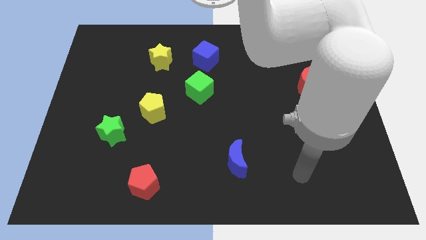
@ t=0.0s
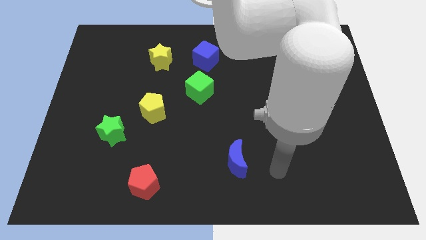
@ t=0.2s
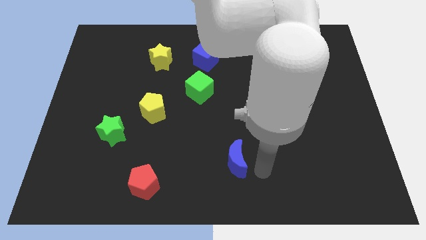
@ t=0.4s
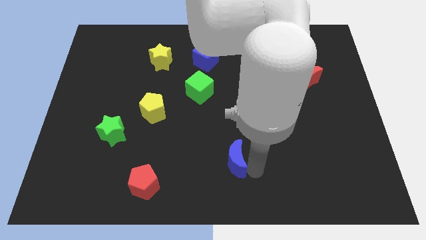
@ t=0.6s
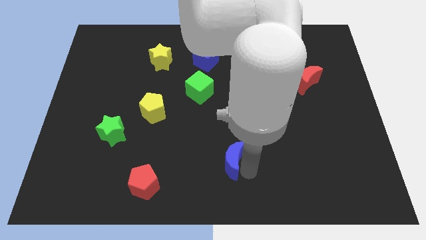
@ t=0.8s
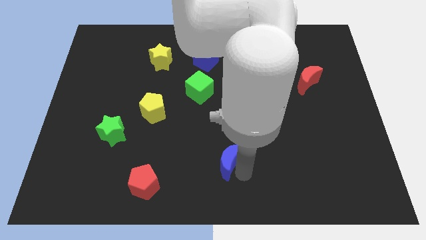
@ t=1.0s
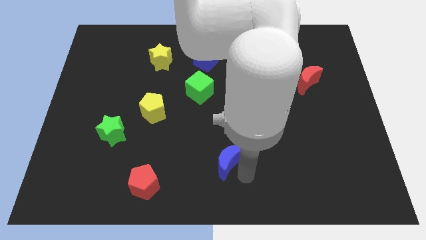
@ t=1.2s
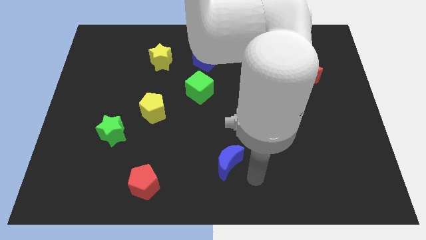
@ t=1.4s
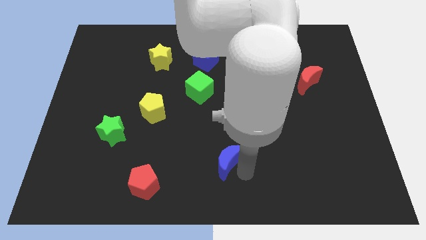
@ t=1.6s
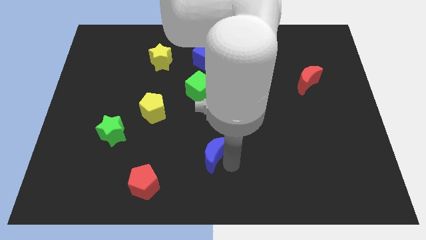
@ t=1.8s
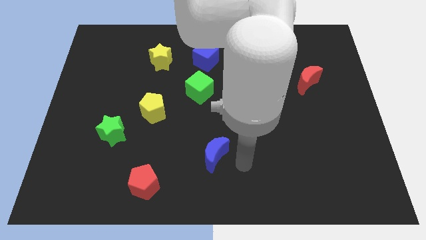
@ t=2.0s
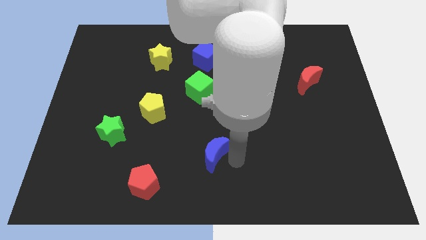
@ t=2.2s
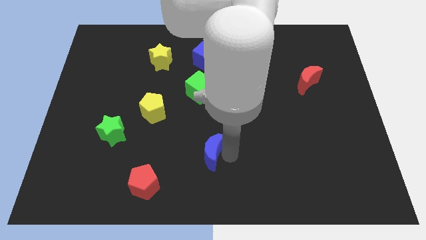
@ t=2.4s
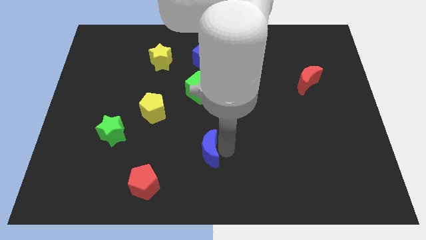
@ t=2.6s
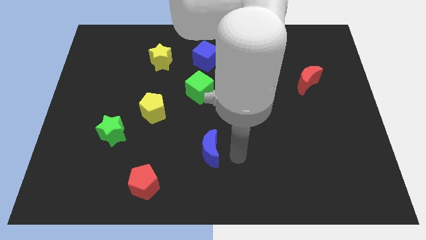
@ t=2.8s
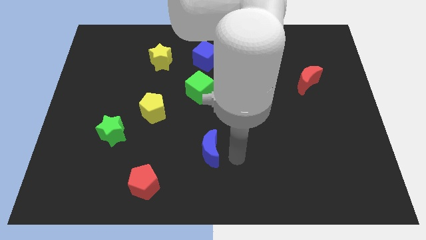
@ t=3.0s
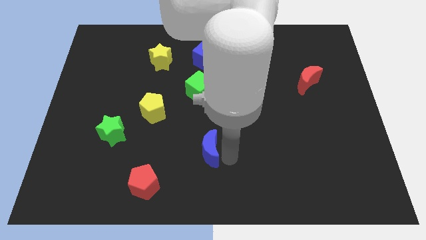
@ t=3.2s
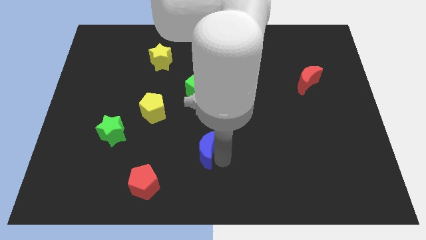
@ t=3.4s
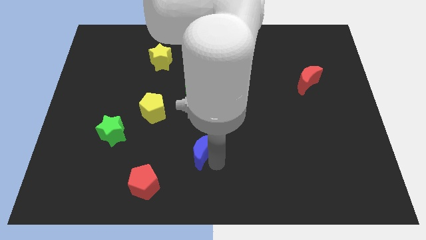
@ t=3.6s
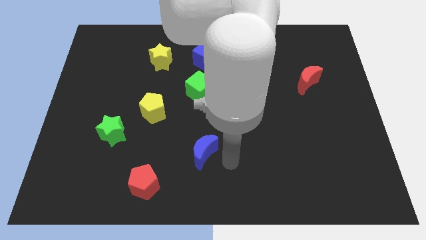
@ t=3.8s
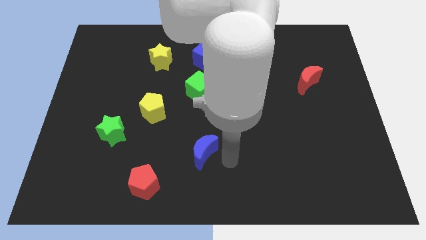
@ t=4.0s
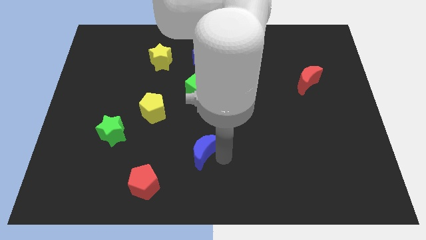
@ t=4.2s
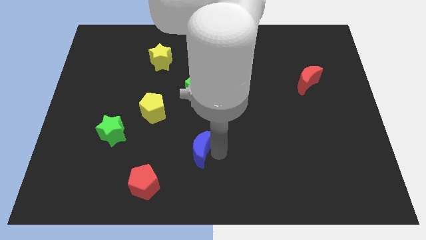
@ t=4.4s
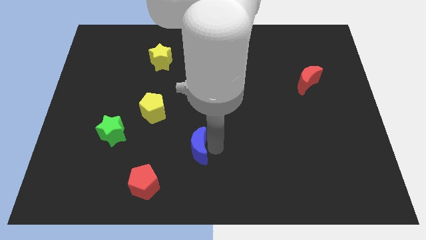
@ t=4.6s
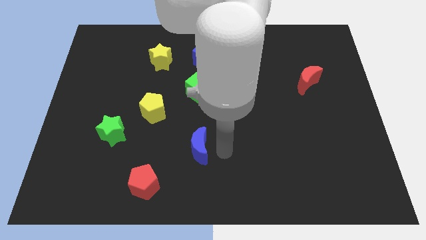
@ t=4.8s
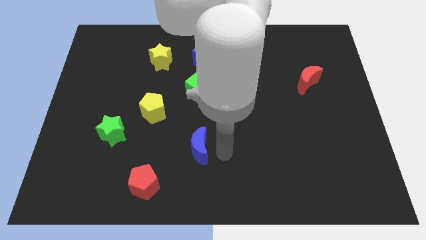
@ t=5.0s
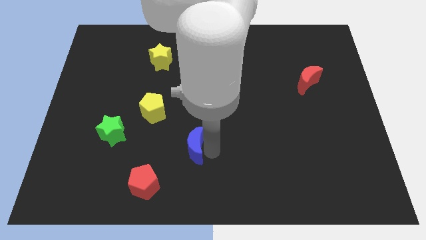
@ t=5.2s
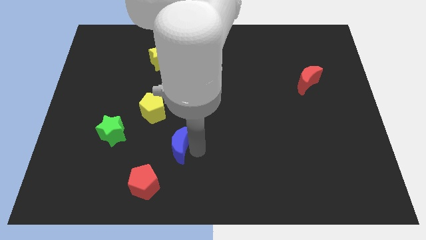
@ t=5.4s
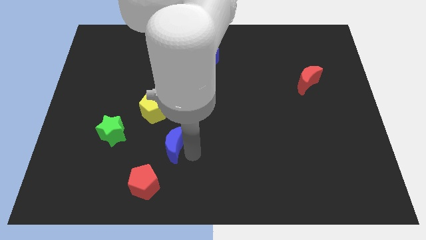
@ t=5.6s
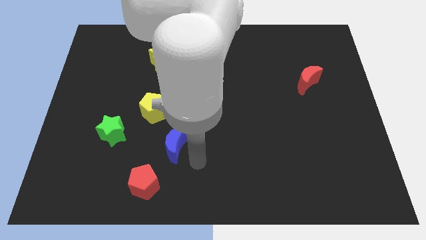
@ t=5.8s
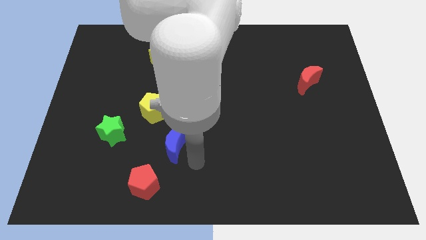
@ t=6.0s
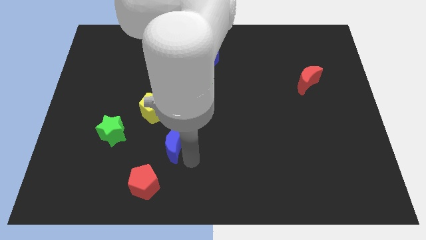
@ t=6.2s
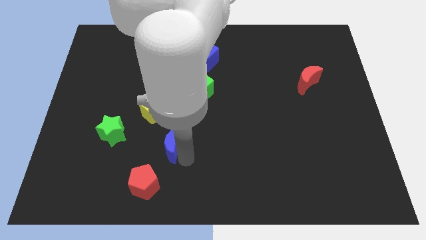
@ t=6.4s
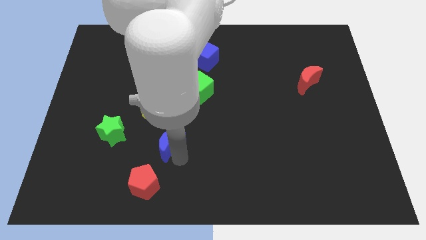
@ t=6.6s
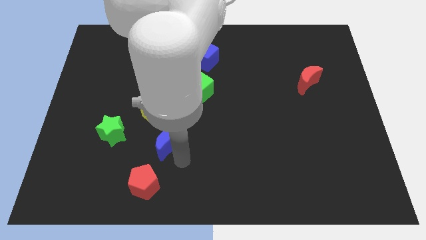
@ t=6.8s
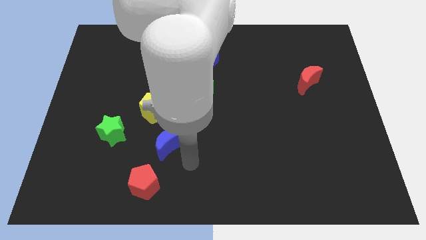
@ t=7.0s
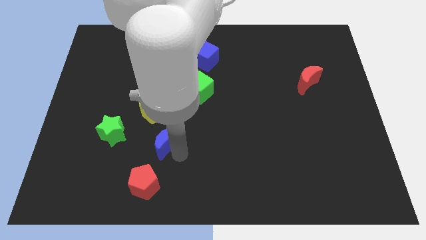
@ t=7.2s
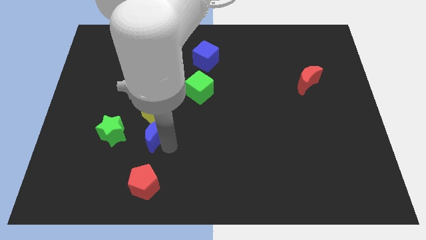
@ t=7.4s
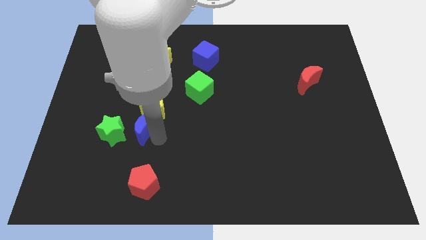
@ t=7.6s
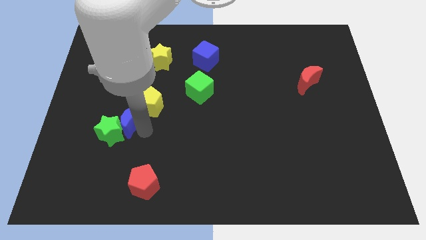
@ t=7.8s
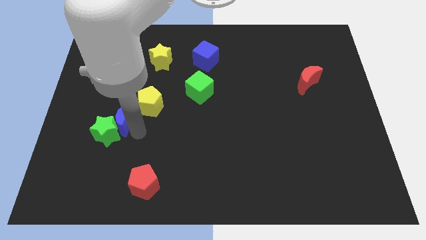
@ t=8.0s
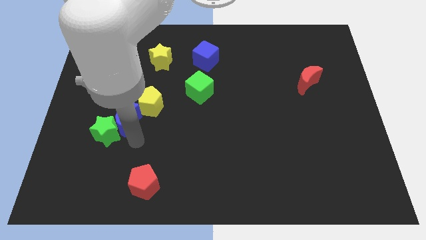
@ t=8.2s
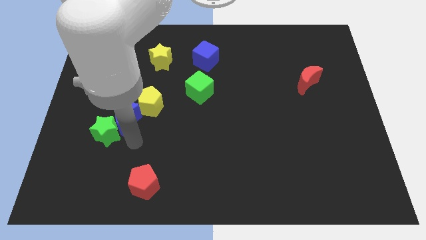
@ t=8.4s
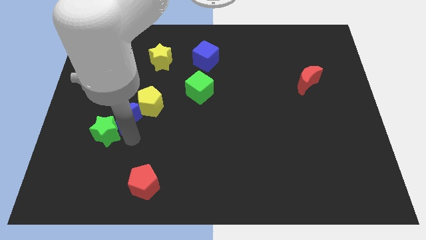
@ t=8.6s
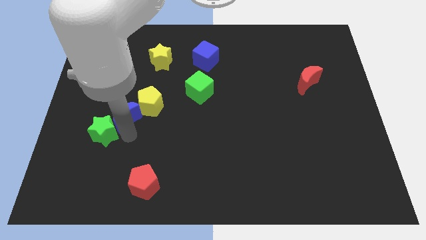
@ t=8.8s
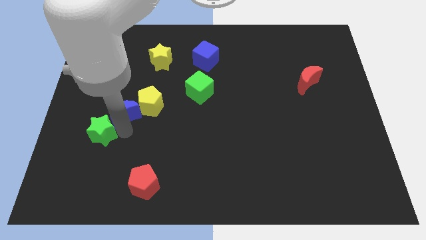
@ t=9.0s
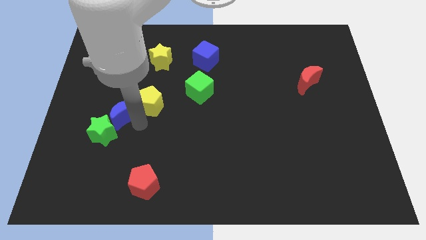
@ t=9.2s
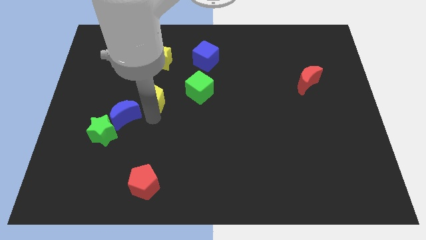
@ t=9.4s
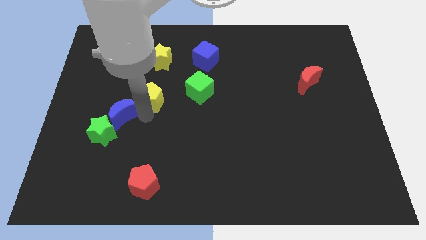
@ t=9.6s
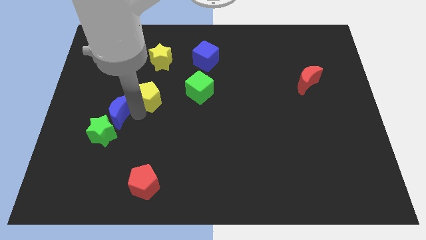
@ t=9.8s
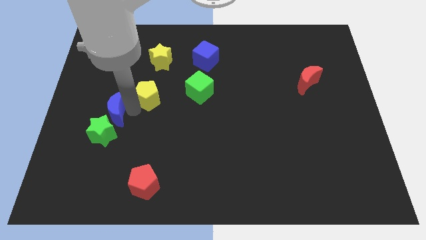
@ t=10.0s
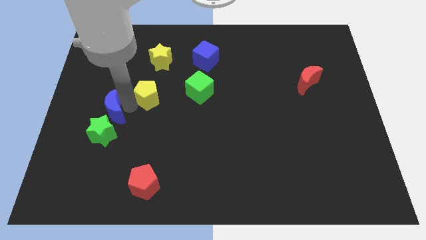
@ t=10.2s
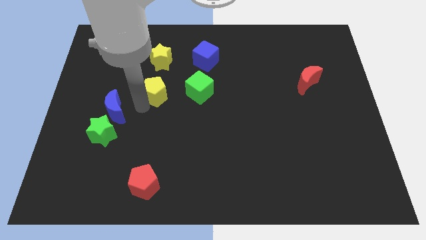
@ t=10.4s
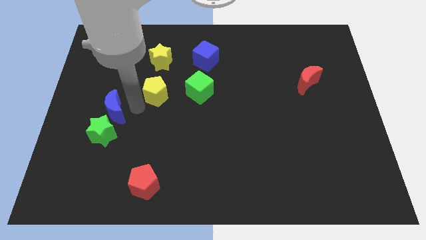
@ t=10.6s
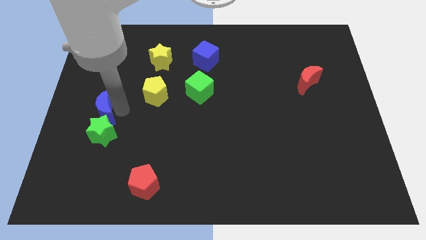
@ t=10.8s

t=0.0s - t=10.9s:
put the blue moon diagonally up and to the left of the green star

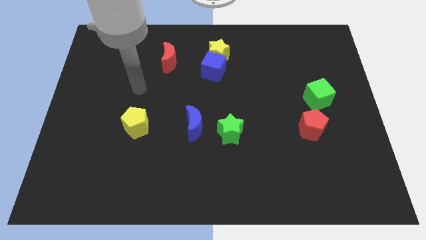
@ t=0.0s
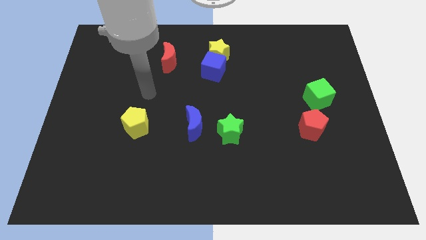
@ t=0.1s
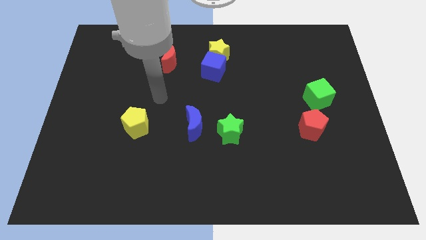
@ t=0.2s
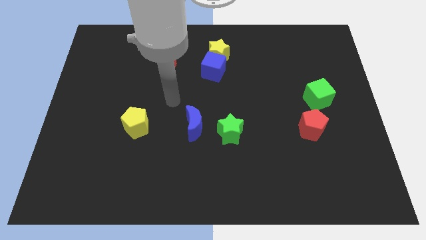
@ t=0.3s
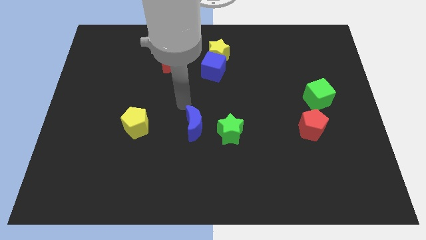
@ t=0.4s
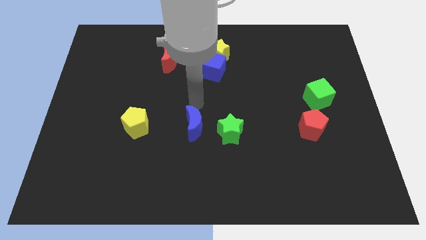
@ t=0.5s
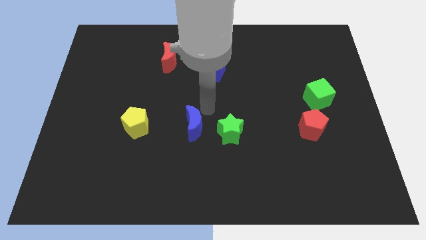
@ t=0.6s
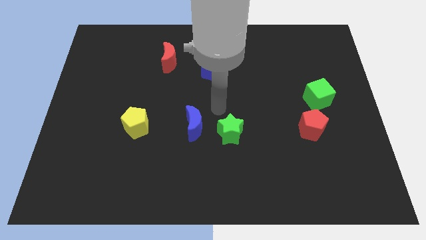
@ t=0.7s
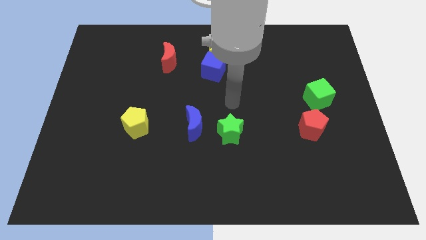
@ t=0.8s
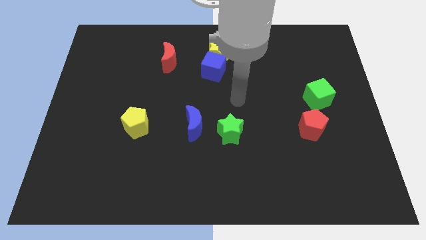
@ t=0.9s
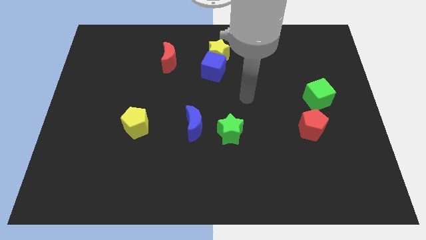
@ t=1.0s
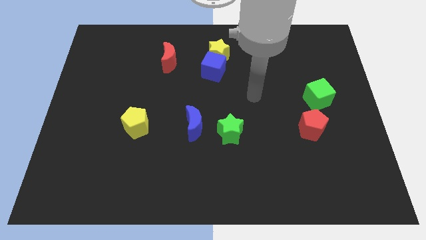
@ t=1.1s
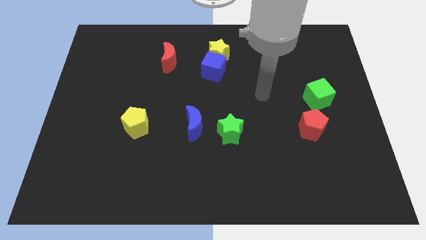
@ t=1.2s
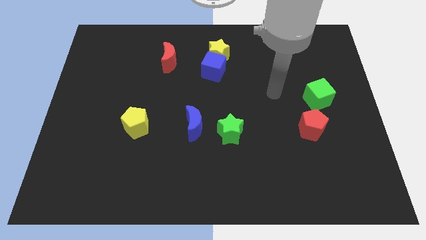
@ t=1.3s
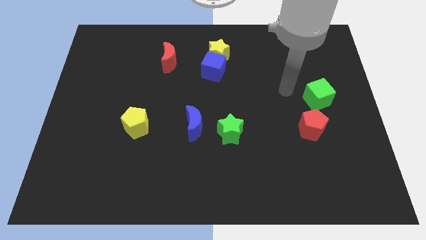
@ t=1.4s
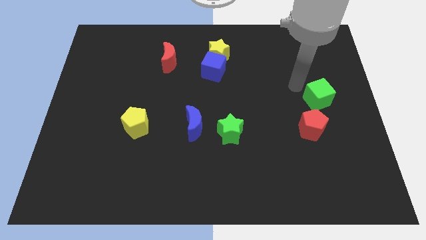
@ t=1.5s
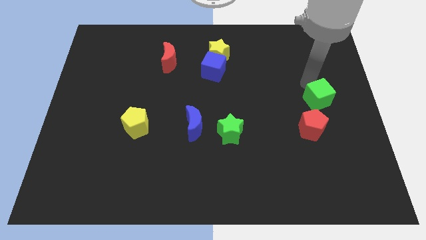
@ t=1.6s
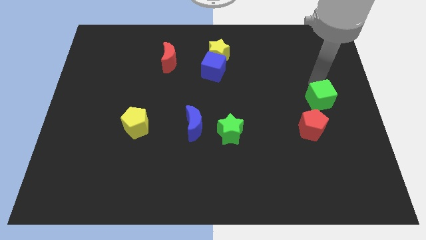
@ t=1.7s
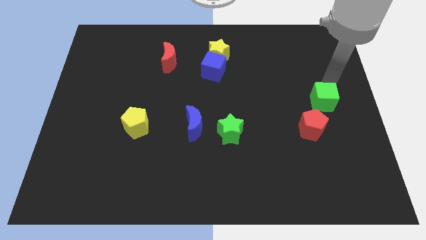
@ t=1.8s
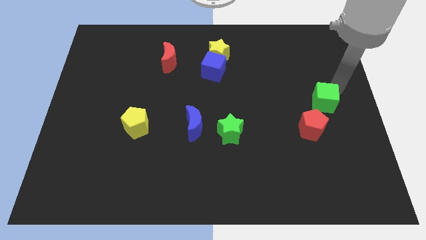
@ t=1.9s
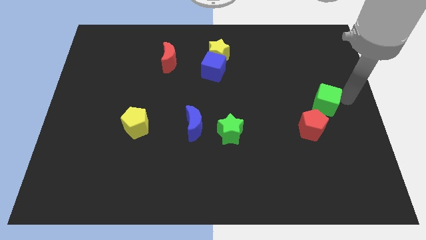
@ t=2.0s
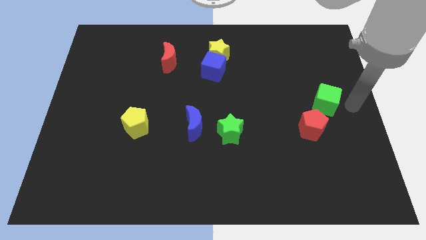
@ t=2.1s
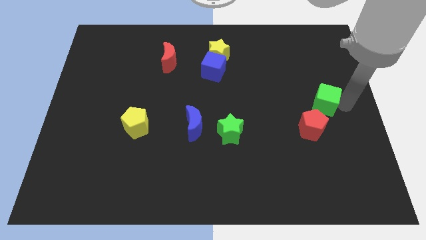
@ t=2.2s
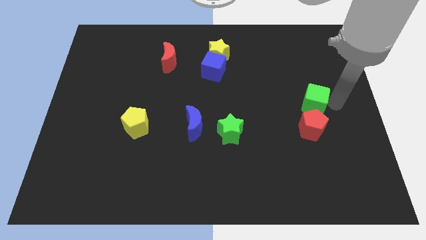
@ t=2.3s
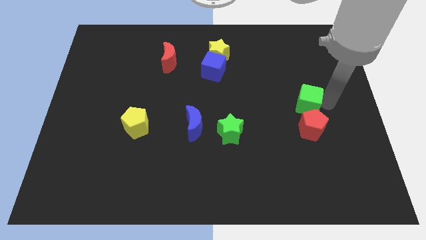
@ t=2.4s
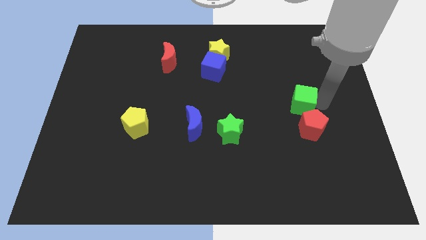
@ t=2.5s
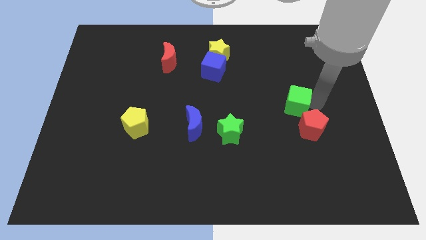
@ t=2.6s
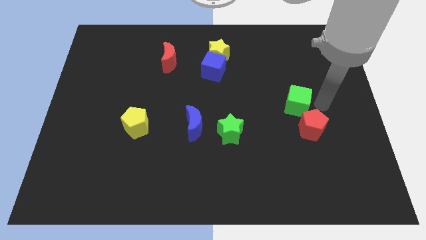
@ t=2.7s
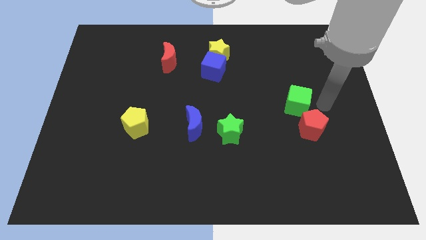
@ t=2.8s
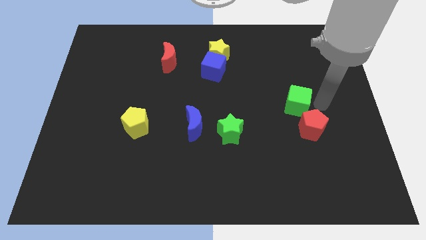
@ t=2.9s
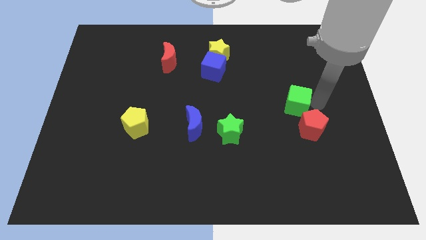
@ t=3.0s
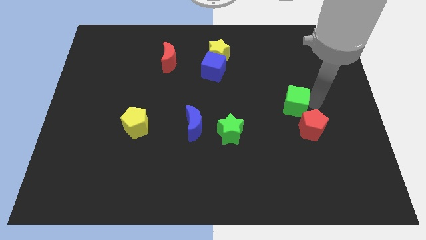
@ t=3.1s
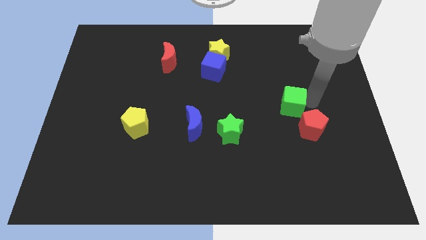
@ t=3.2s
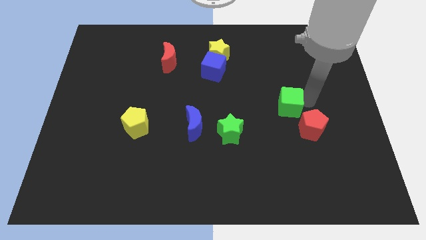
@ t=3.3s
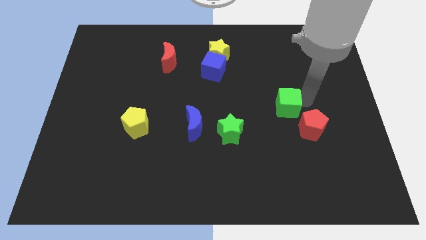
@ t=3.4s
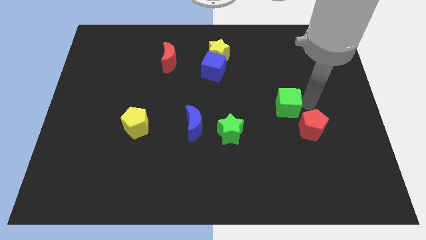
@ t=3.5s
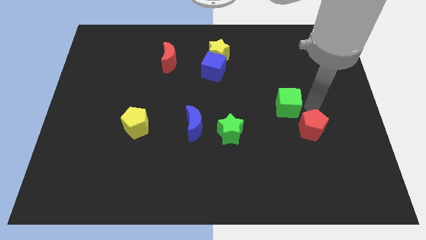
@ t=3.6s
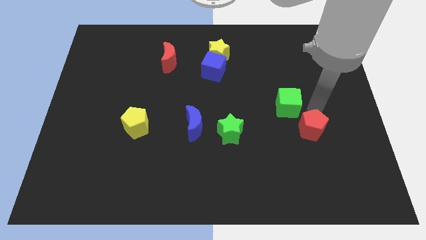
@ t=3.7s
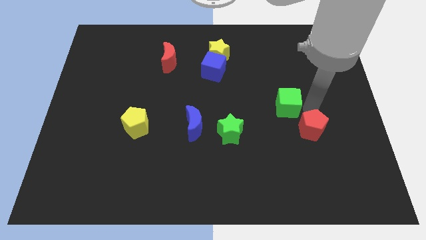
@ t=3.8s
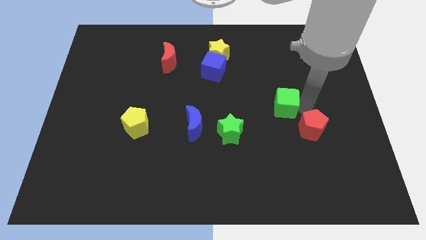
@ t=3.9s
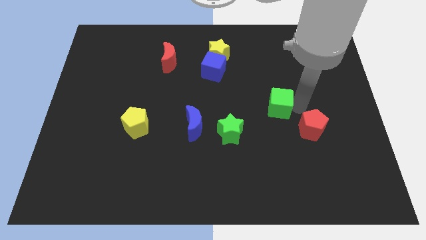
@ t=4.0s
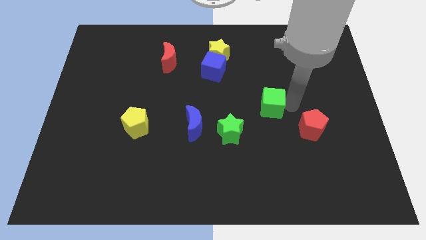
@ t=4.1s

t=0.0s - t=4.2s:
put the green cube to the top right side of the green star
